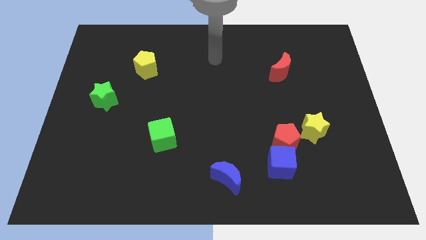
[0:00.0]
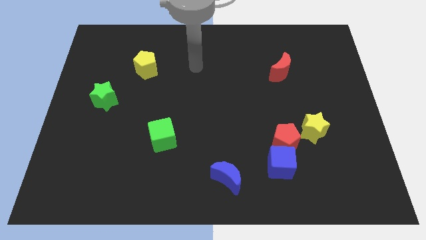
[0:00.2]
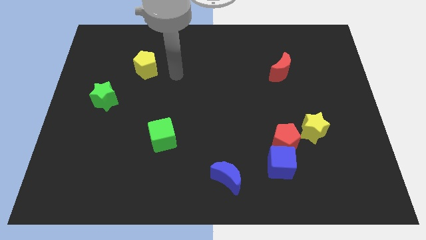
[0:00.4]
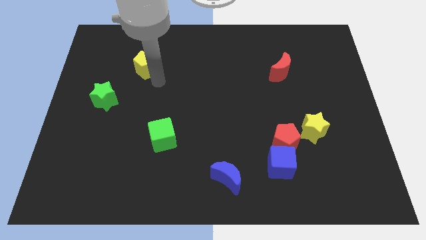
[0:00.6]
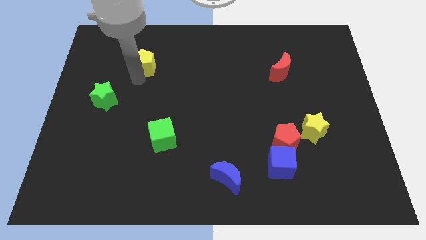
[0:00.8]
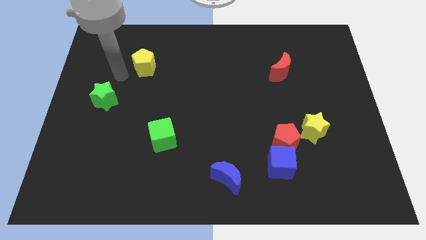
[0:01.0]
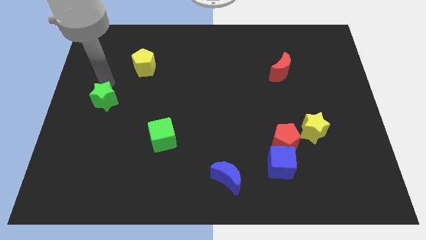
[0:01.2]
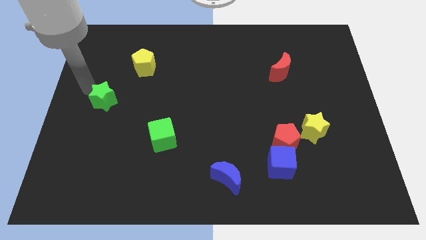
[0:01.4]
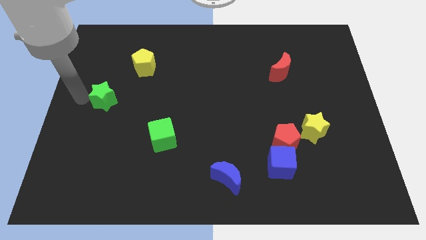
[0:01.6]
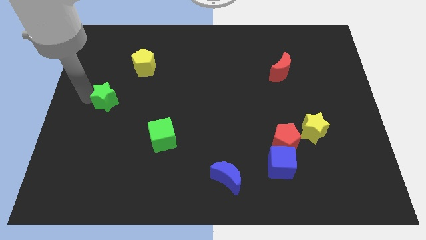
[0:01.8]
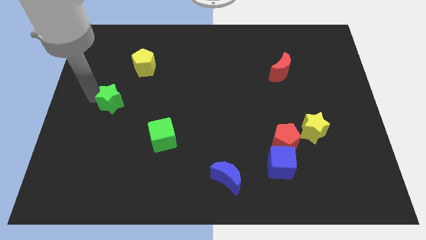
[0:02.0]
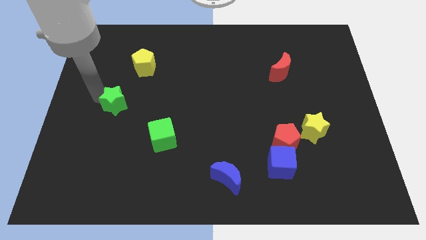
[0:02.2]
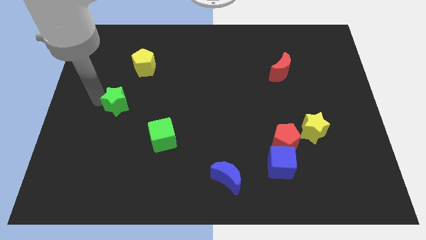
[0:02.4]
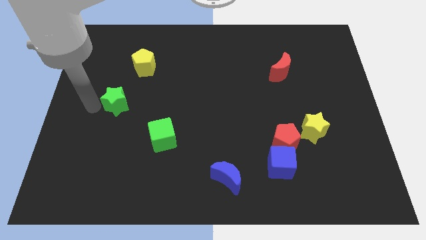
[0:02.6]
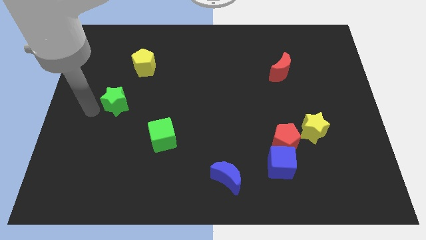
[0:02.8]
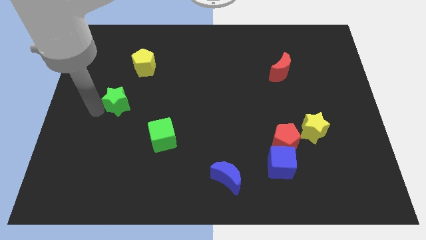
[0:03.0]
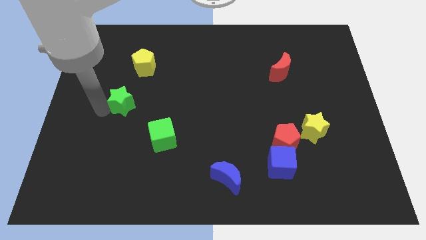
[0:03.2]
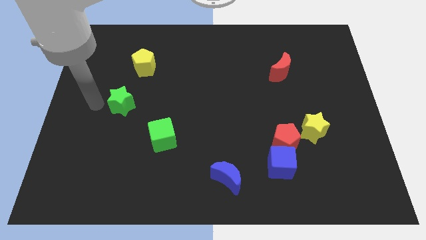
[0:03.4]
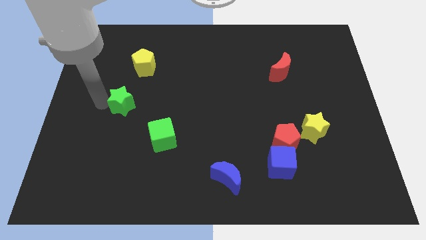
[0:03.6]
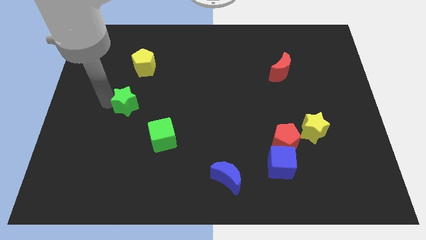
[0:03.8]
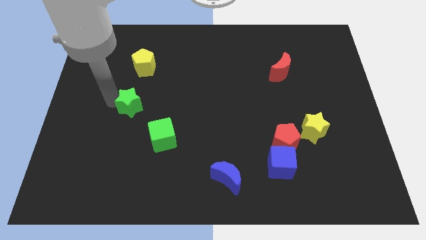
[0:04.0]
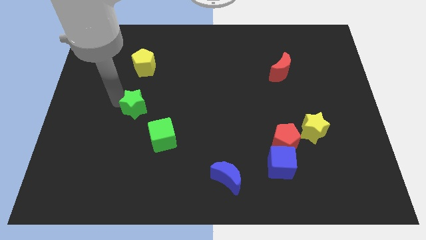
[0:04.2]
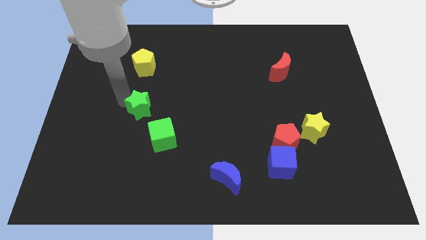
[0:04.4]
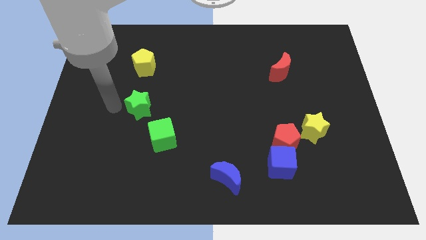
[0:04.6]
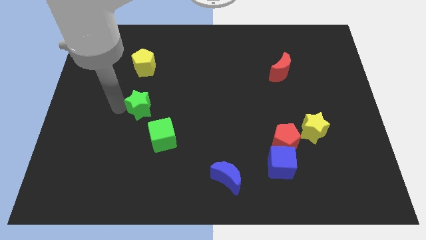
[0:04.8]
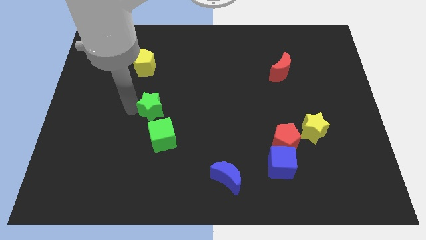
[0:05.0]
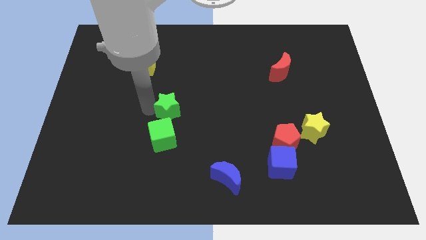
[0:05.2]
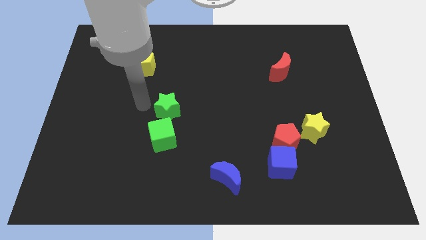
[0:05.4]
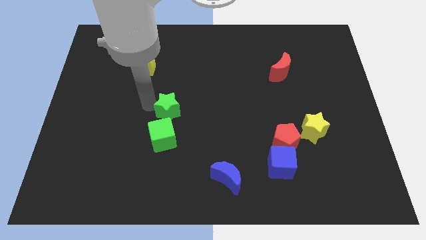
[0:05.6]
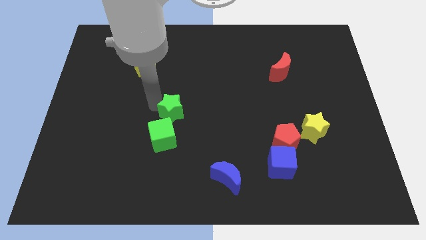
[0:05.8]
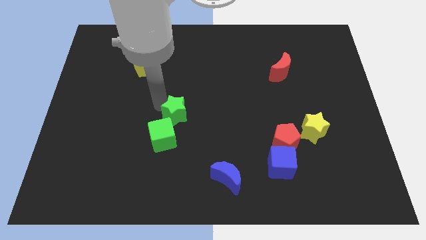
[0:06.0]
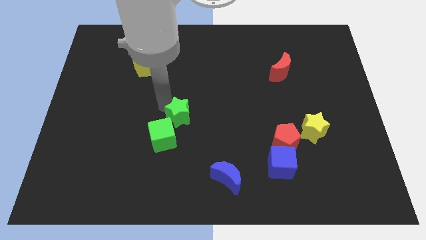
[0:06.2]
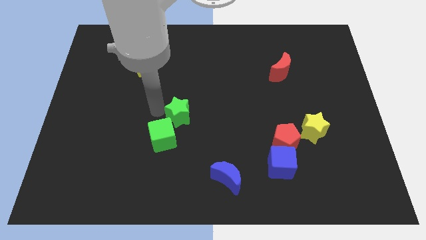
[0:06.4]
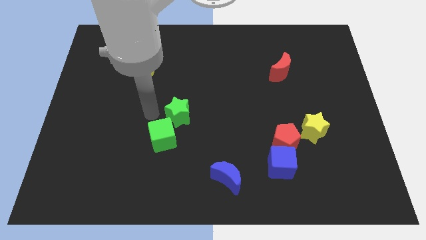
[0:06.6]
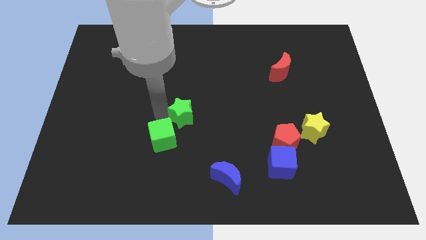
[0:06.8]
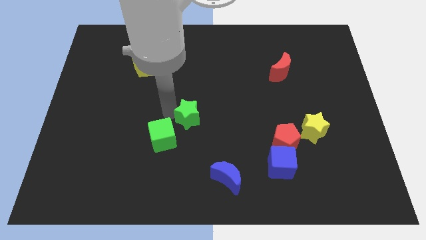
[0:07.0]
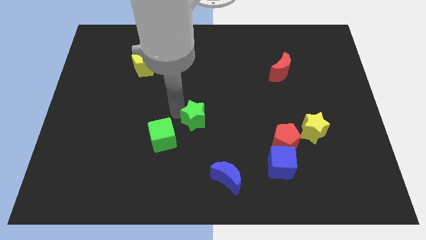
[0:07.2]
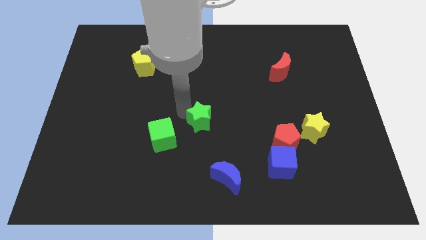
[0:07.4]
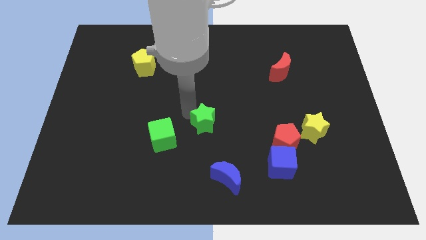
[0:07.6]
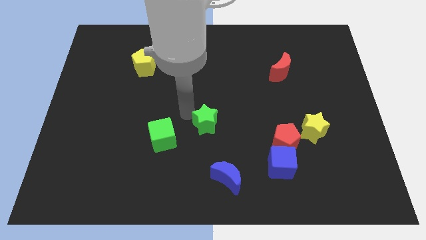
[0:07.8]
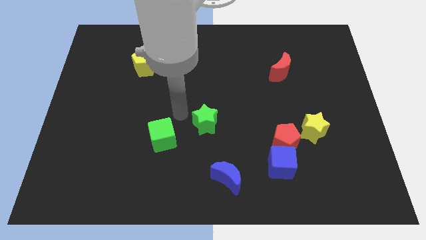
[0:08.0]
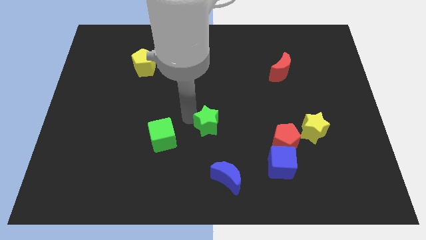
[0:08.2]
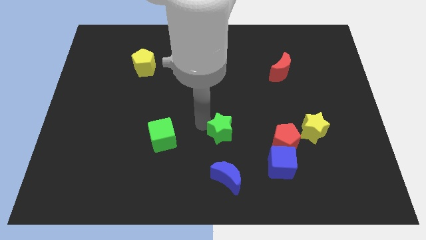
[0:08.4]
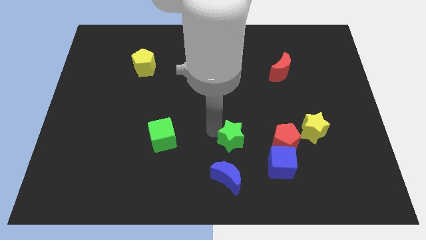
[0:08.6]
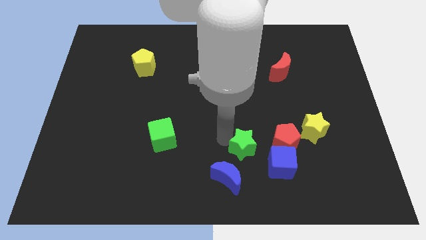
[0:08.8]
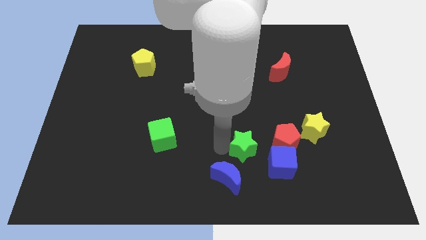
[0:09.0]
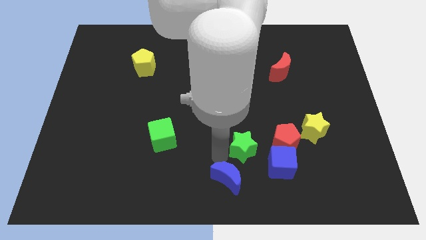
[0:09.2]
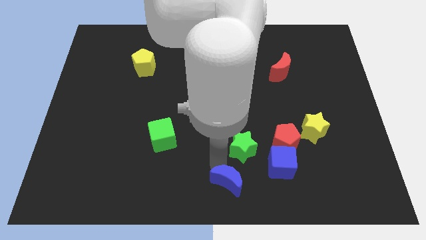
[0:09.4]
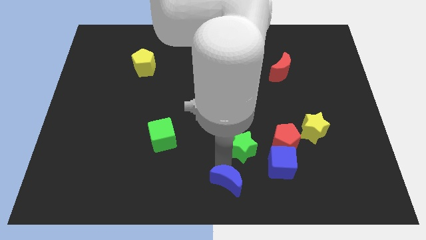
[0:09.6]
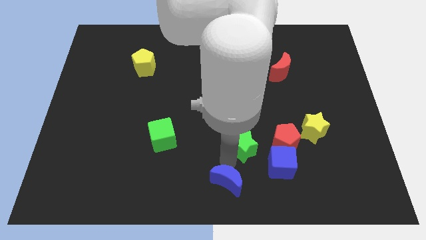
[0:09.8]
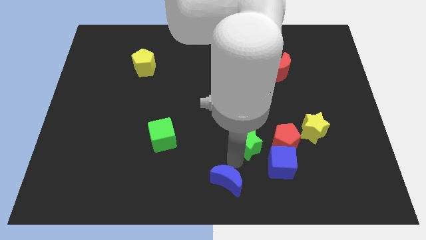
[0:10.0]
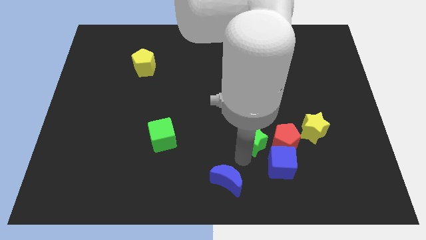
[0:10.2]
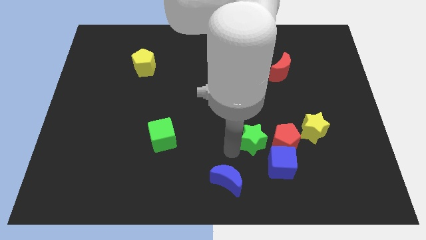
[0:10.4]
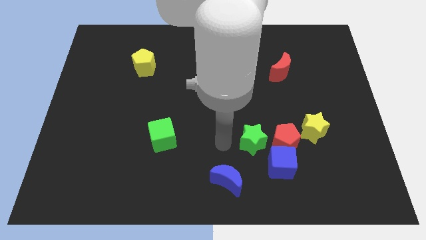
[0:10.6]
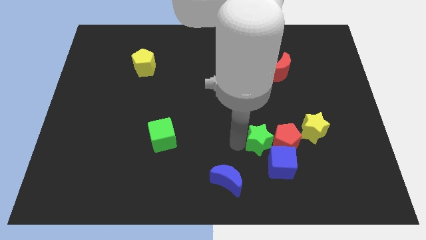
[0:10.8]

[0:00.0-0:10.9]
put the green star towards the red pentagon

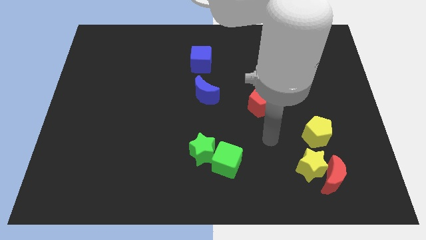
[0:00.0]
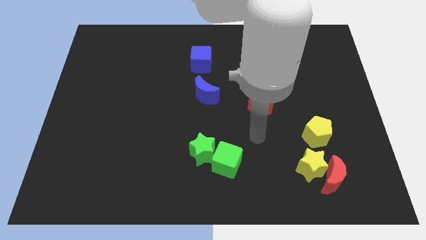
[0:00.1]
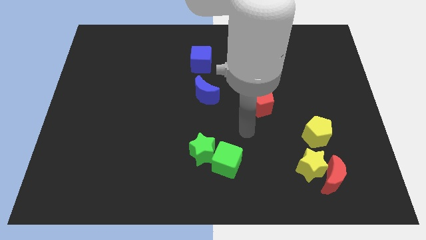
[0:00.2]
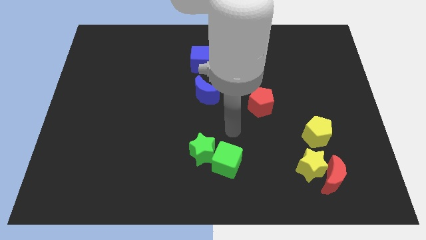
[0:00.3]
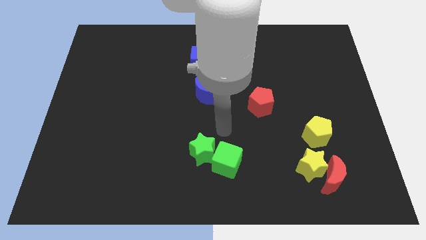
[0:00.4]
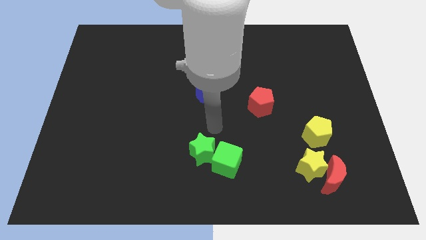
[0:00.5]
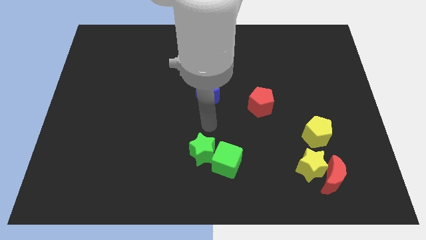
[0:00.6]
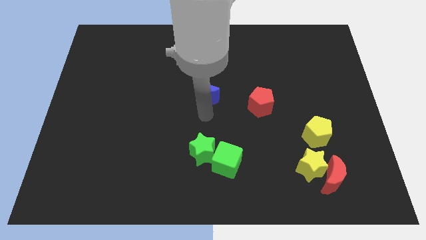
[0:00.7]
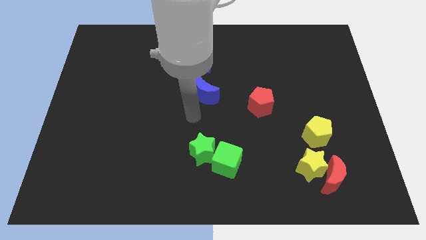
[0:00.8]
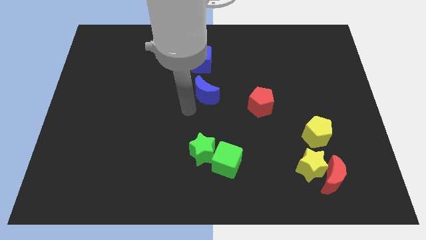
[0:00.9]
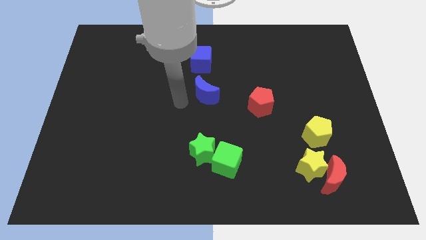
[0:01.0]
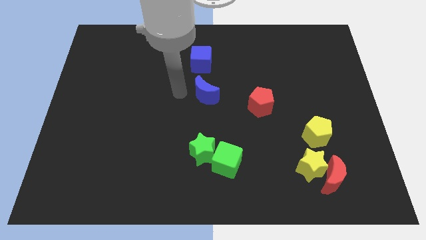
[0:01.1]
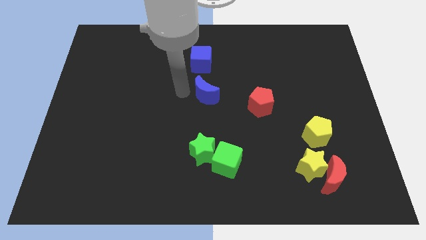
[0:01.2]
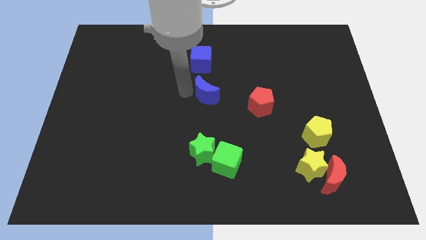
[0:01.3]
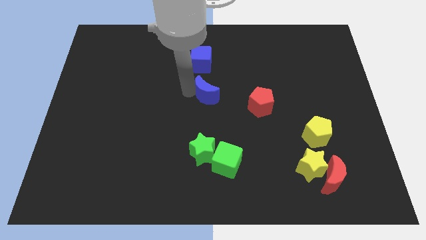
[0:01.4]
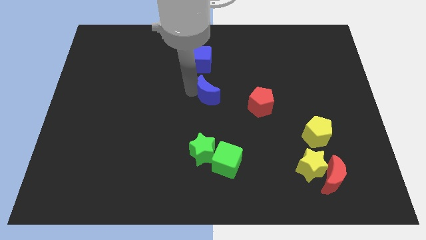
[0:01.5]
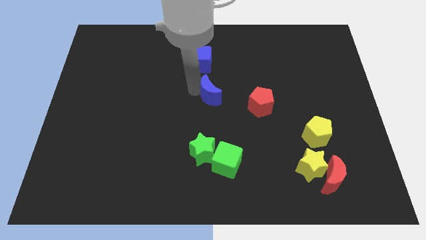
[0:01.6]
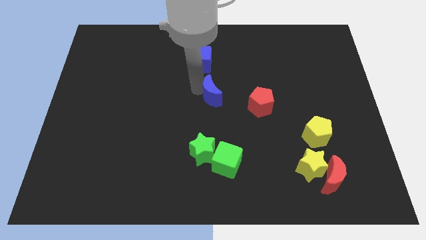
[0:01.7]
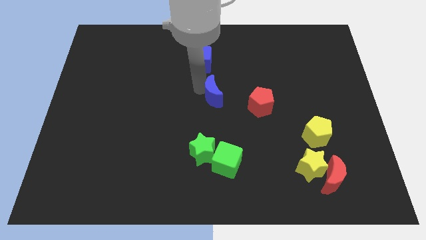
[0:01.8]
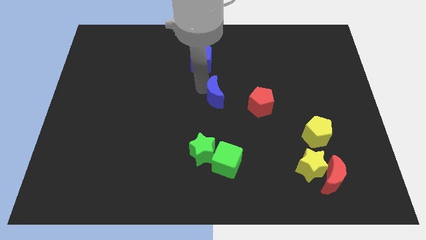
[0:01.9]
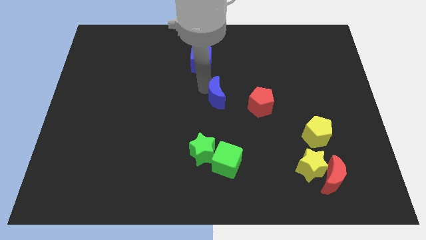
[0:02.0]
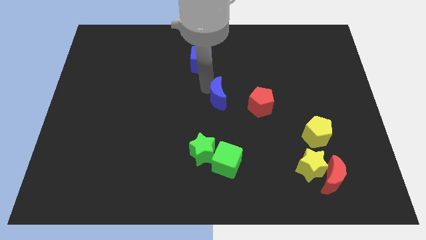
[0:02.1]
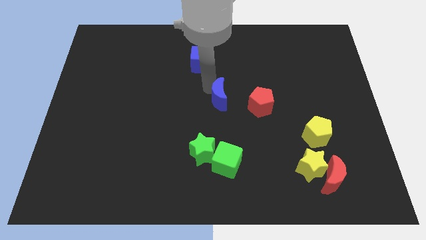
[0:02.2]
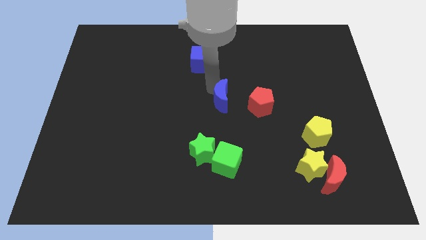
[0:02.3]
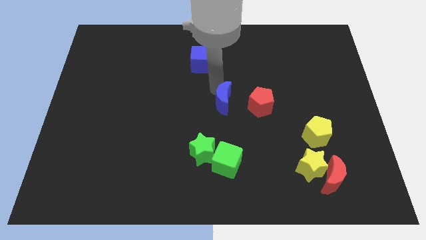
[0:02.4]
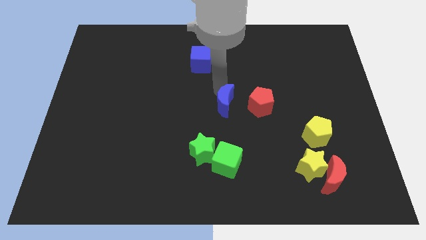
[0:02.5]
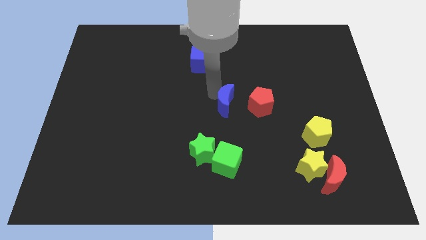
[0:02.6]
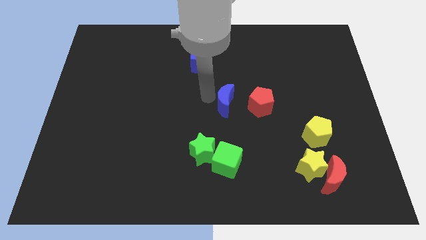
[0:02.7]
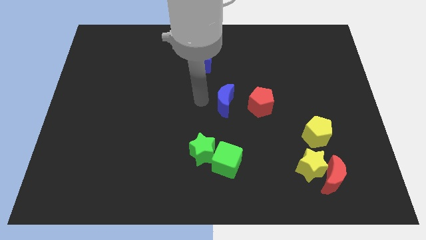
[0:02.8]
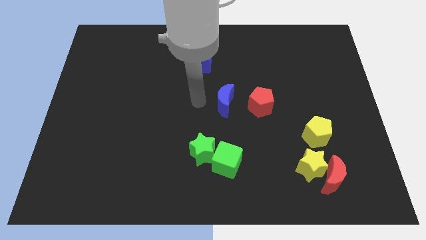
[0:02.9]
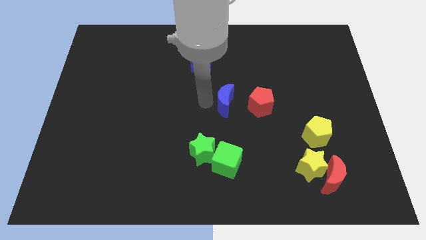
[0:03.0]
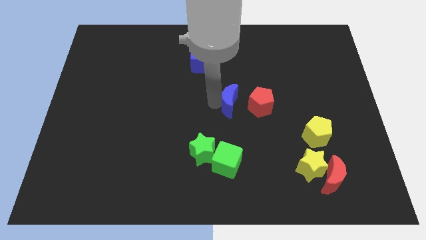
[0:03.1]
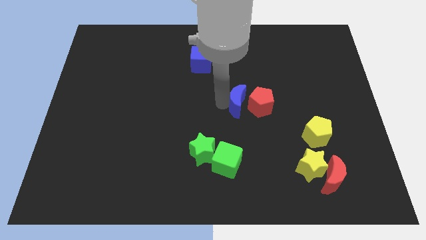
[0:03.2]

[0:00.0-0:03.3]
slide the blue moon to the red pentagon
